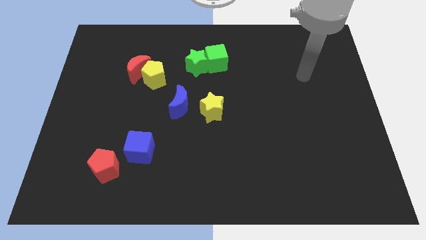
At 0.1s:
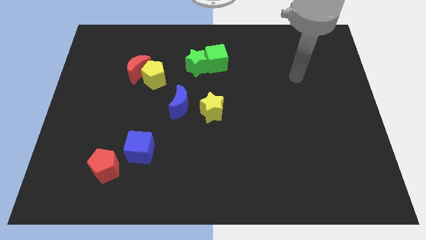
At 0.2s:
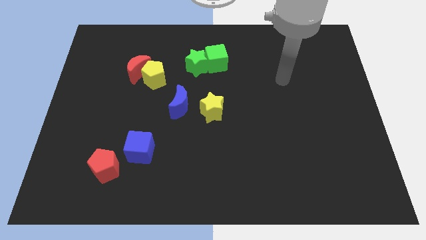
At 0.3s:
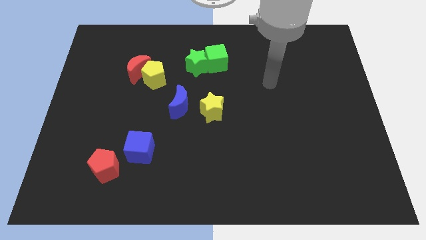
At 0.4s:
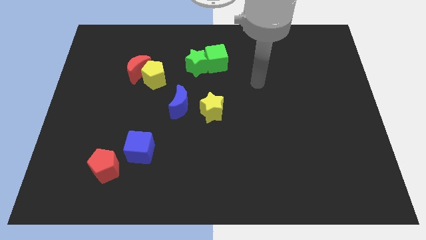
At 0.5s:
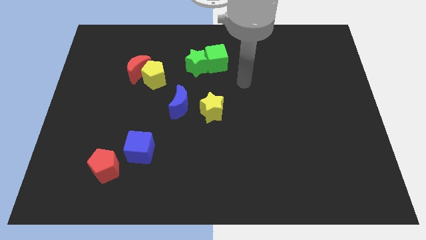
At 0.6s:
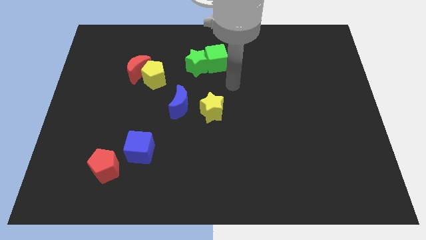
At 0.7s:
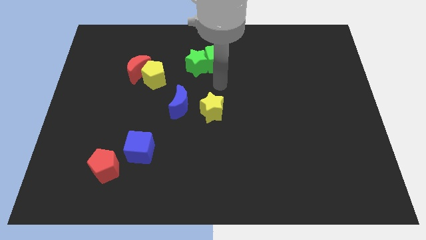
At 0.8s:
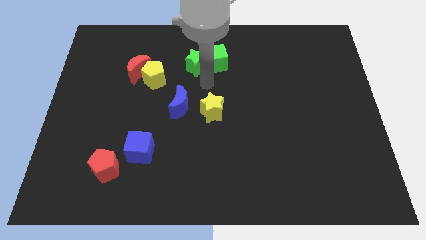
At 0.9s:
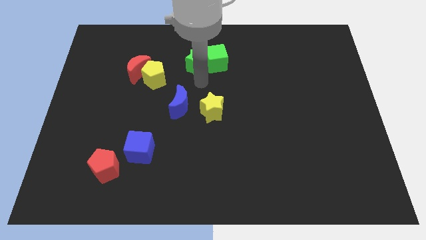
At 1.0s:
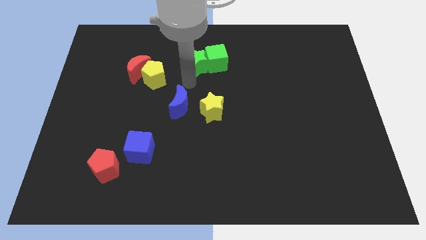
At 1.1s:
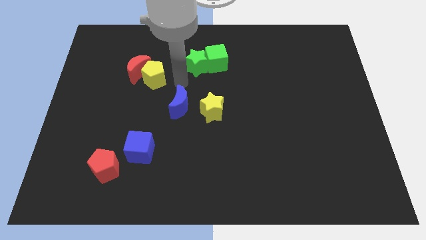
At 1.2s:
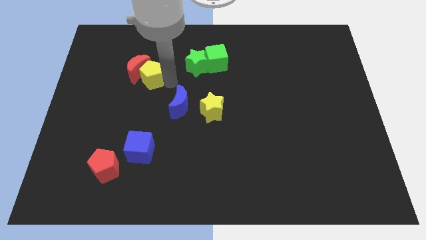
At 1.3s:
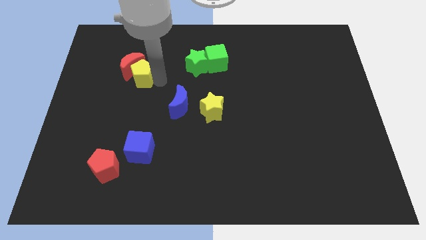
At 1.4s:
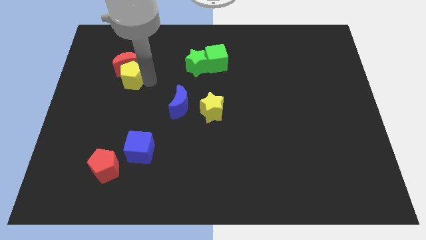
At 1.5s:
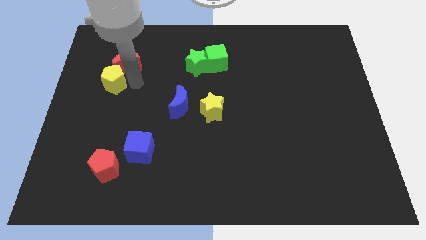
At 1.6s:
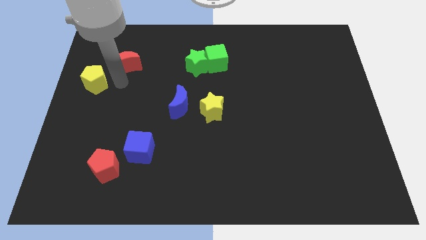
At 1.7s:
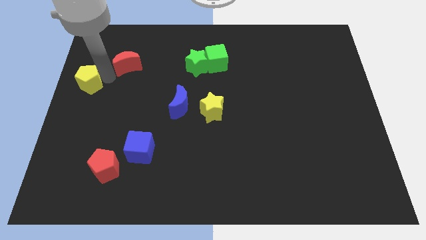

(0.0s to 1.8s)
pull the red moon apart from the yellow pentagon

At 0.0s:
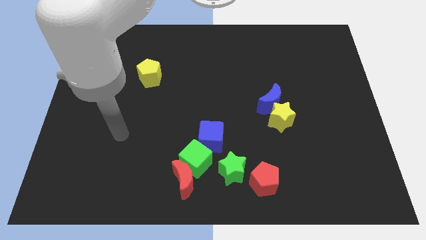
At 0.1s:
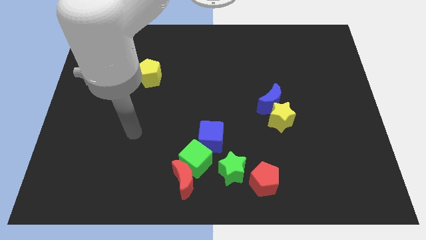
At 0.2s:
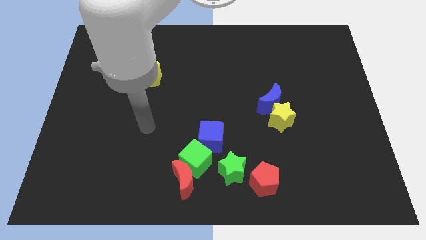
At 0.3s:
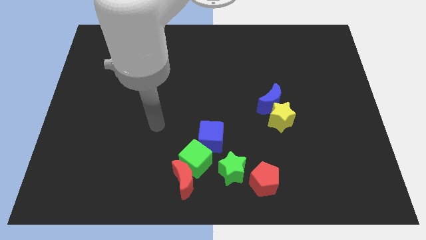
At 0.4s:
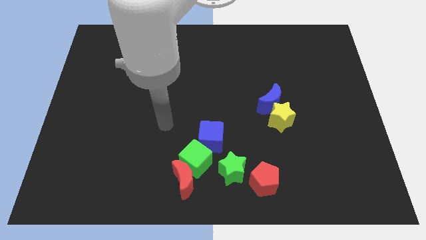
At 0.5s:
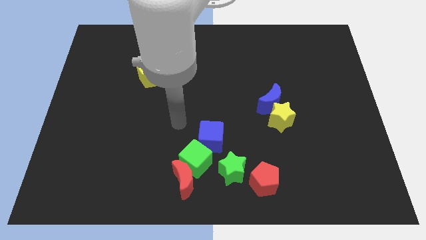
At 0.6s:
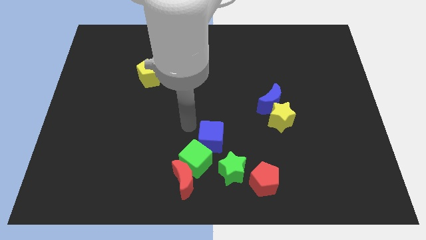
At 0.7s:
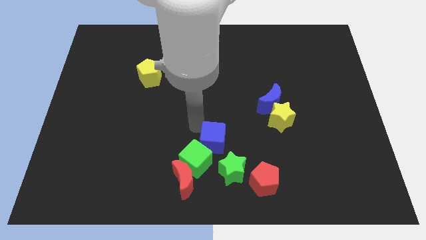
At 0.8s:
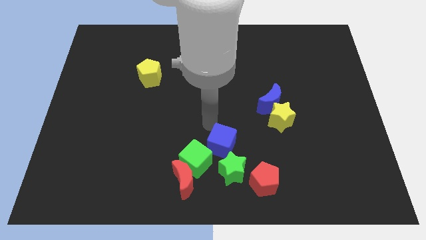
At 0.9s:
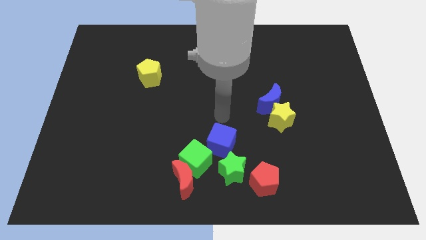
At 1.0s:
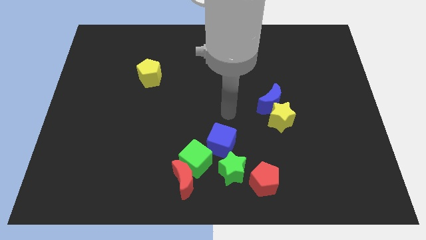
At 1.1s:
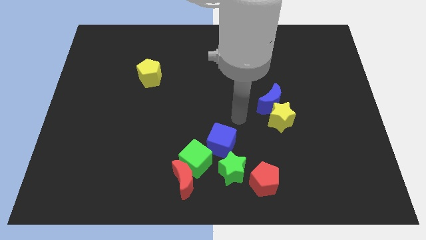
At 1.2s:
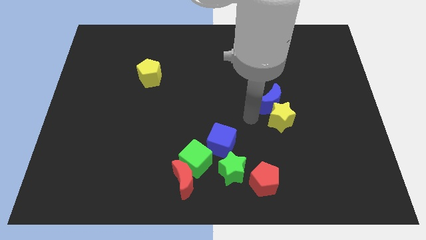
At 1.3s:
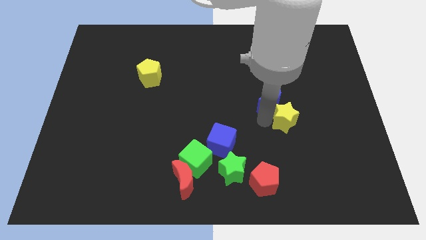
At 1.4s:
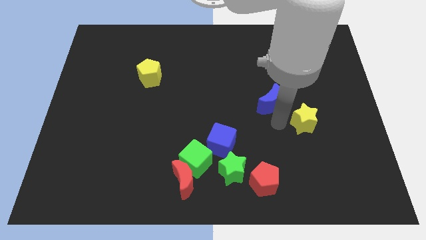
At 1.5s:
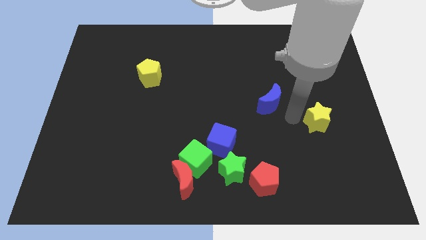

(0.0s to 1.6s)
move the blue moon away from the yellow star

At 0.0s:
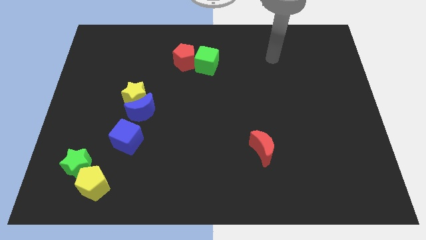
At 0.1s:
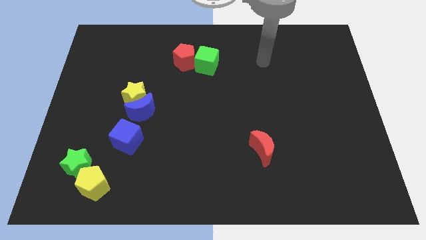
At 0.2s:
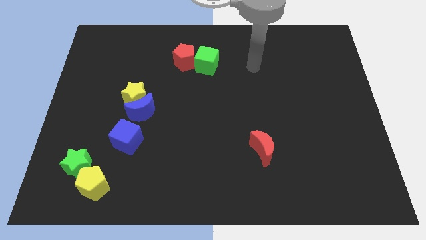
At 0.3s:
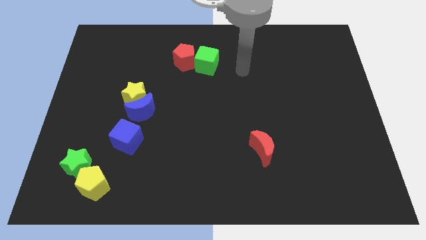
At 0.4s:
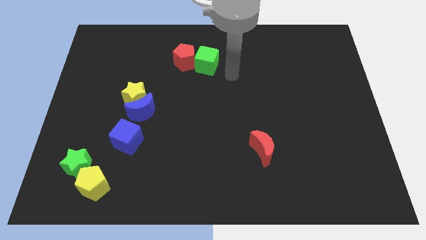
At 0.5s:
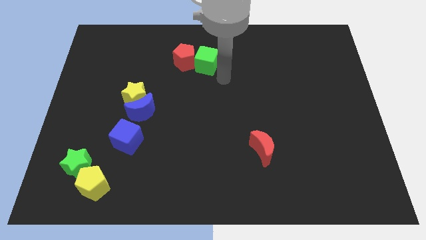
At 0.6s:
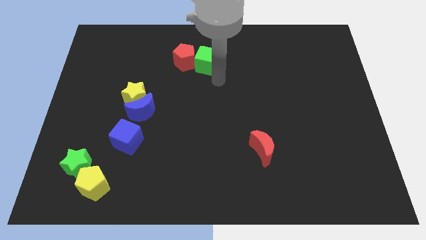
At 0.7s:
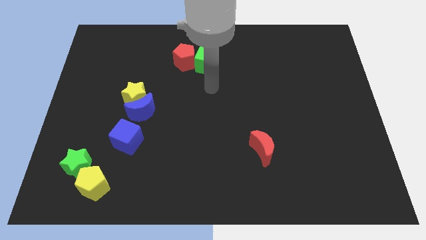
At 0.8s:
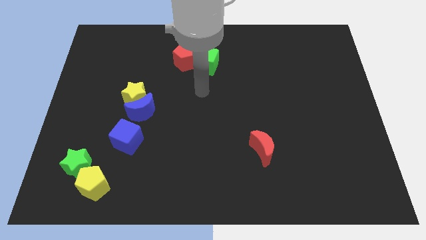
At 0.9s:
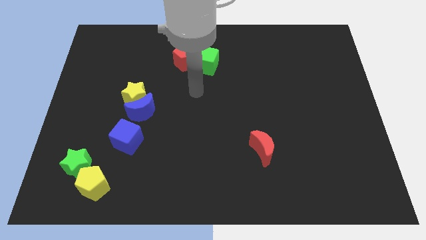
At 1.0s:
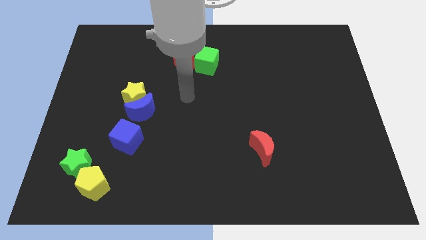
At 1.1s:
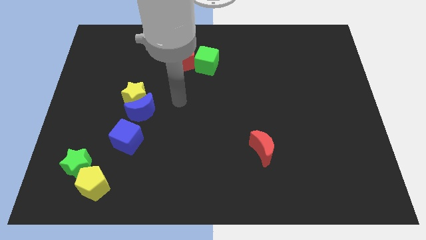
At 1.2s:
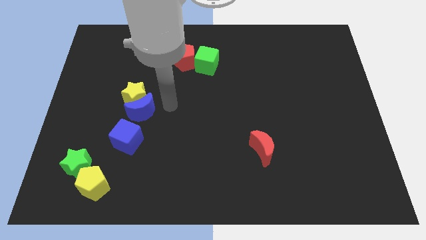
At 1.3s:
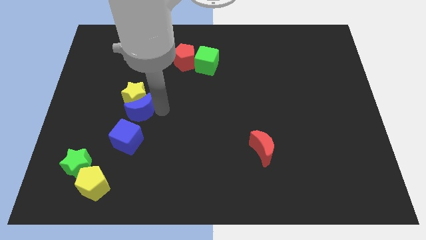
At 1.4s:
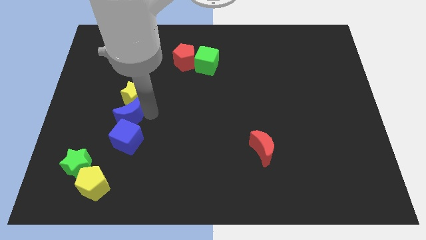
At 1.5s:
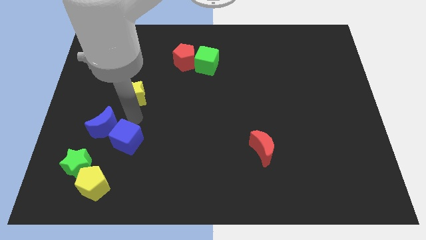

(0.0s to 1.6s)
separate the yellow star from the blue moon

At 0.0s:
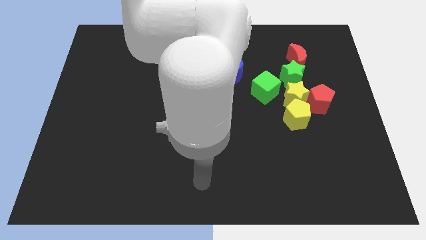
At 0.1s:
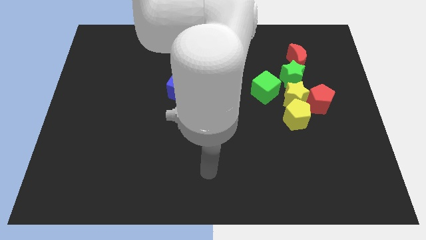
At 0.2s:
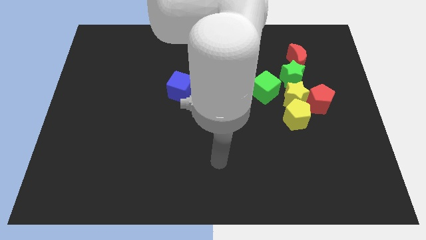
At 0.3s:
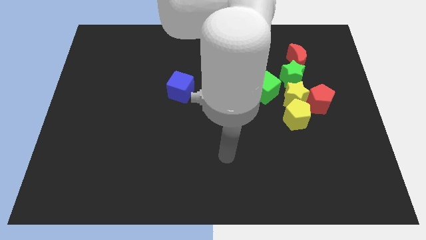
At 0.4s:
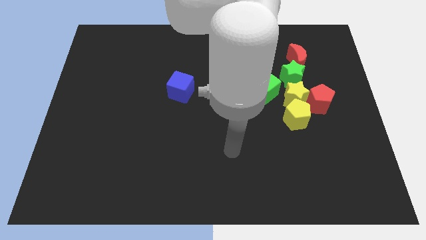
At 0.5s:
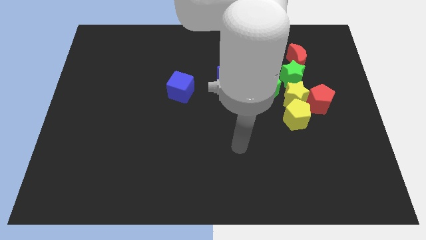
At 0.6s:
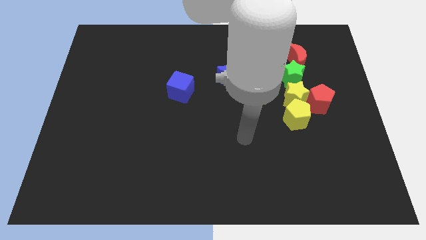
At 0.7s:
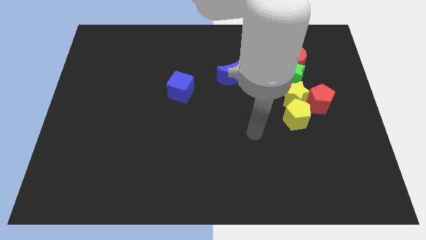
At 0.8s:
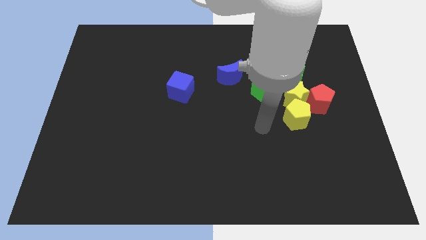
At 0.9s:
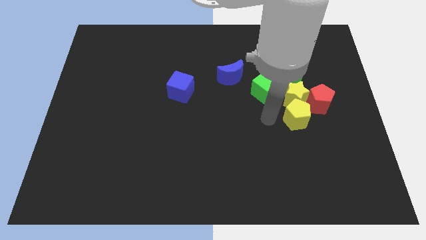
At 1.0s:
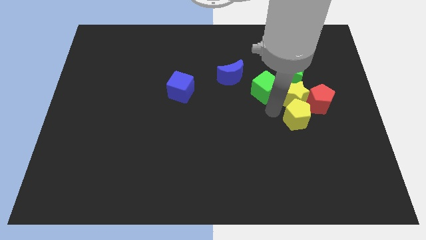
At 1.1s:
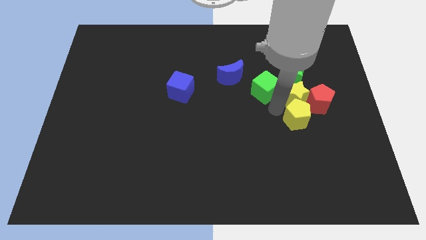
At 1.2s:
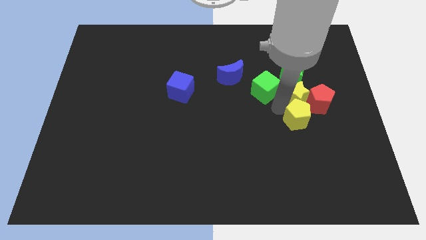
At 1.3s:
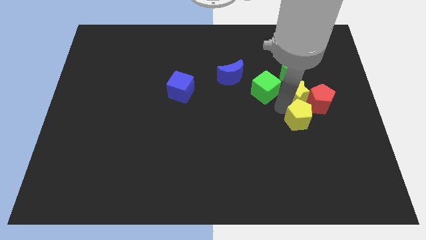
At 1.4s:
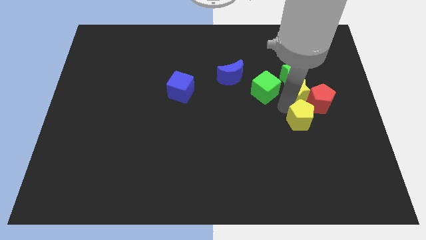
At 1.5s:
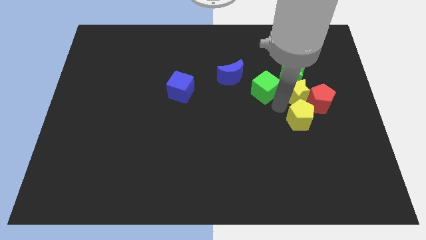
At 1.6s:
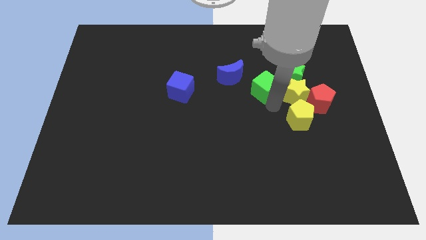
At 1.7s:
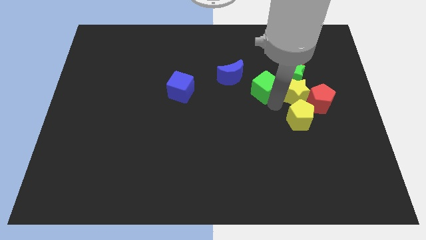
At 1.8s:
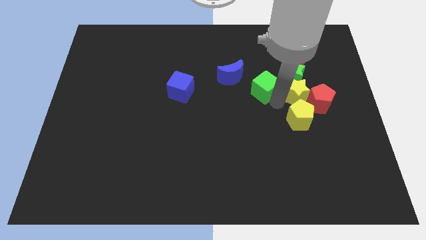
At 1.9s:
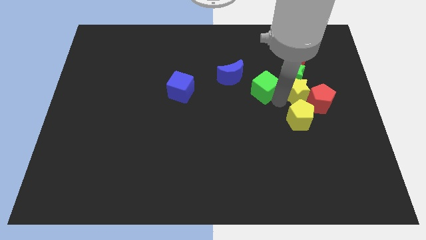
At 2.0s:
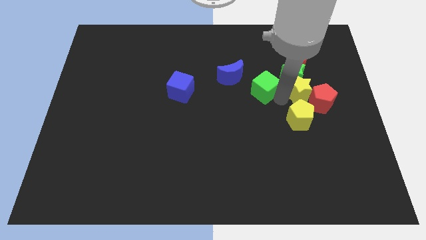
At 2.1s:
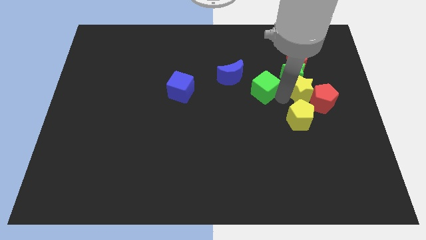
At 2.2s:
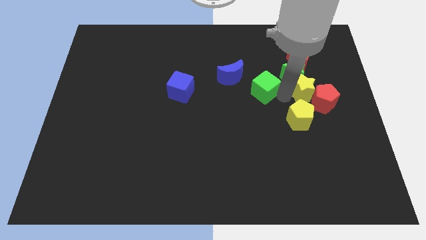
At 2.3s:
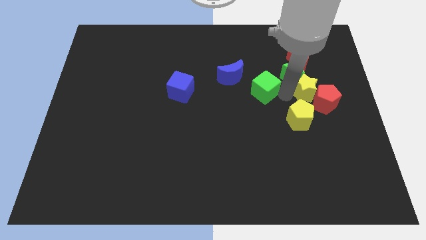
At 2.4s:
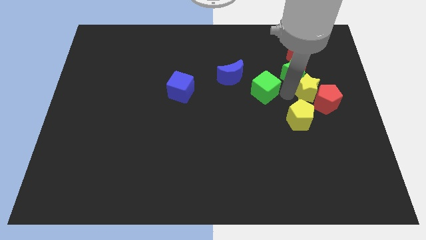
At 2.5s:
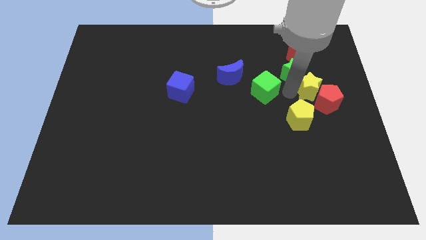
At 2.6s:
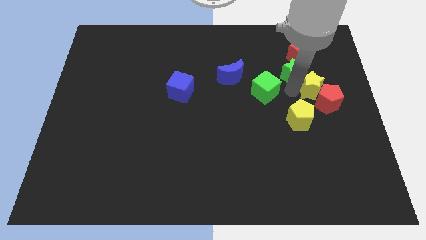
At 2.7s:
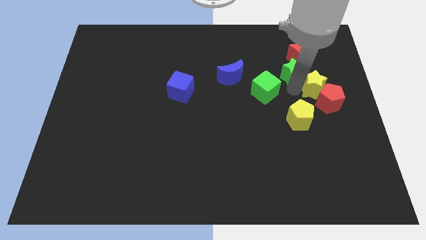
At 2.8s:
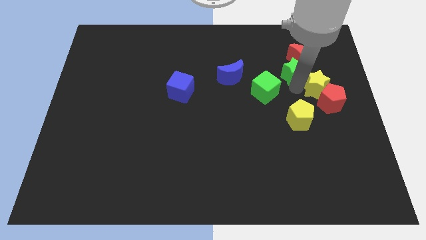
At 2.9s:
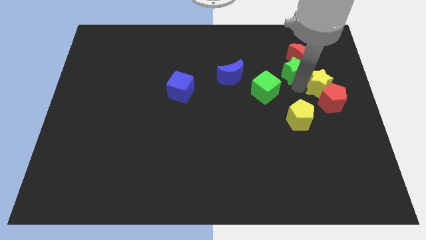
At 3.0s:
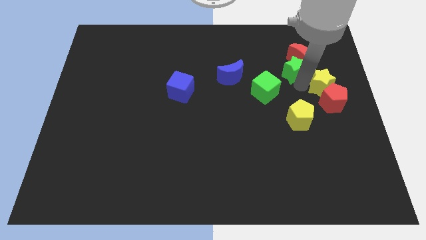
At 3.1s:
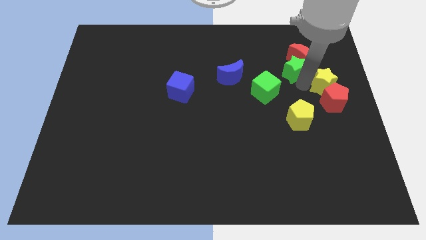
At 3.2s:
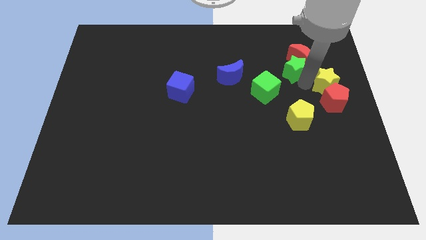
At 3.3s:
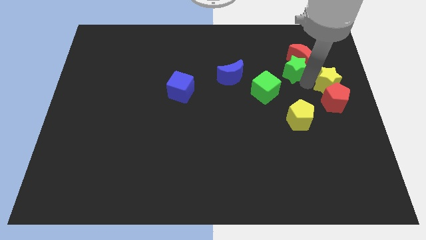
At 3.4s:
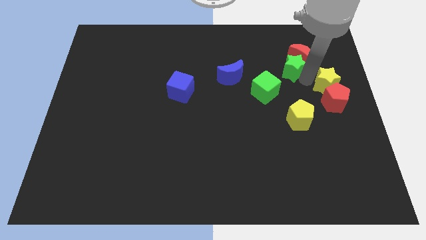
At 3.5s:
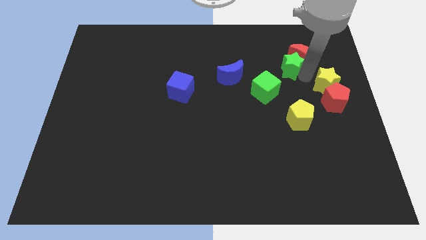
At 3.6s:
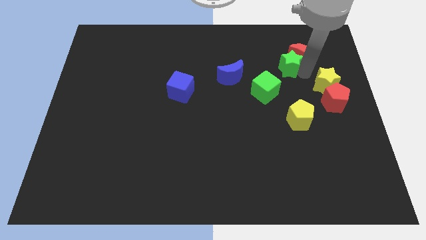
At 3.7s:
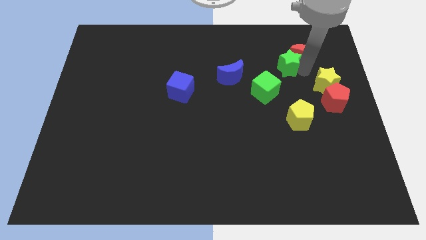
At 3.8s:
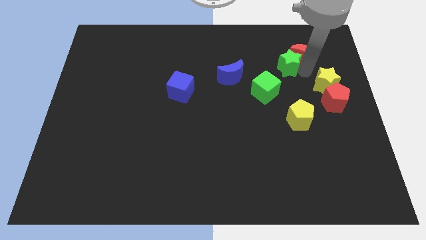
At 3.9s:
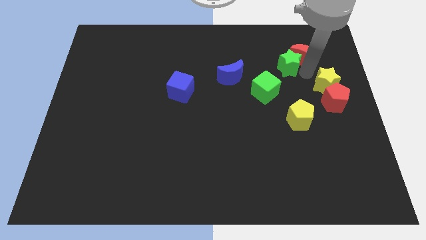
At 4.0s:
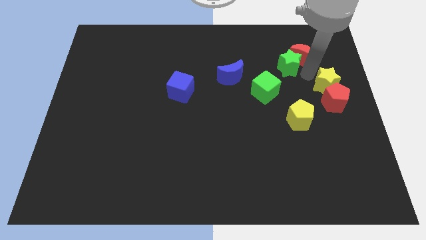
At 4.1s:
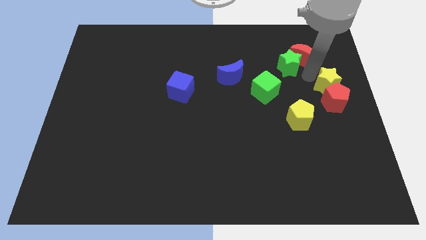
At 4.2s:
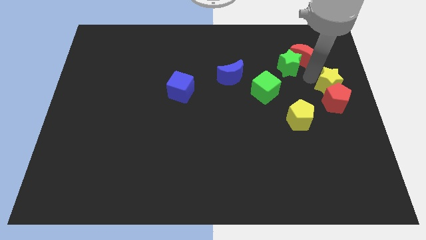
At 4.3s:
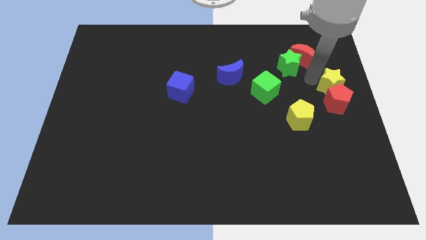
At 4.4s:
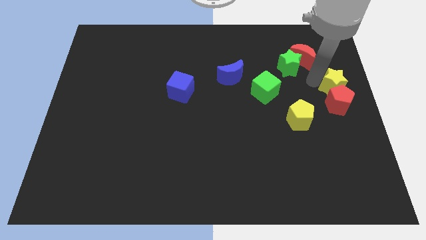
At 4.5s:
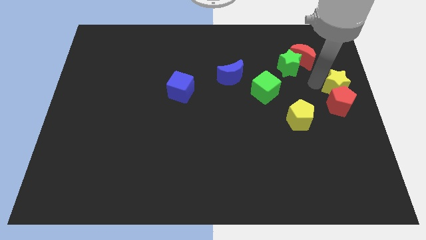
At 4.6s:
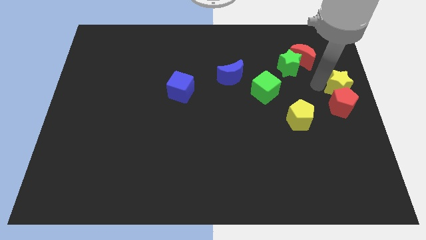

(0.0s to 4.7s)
move the yellow star away from the group of blocks
